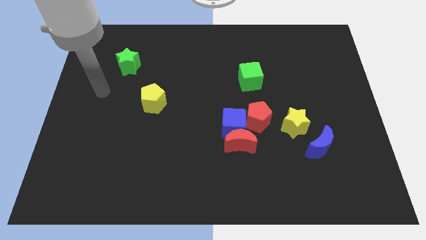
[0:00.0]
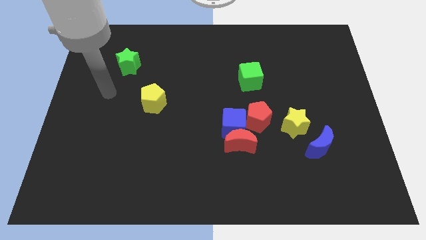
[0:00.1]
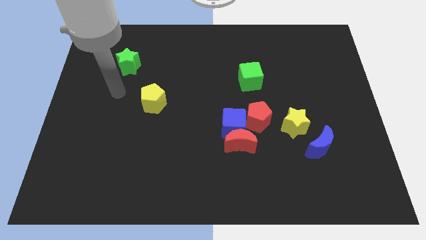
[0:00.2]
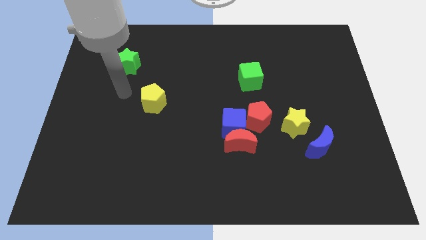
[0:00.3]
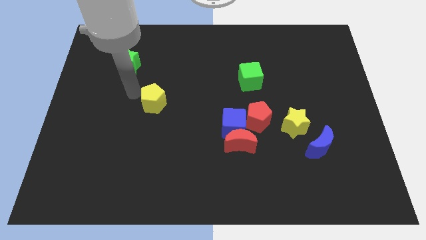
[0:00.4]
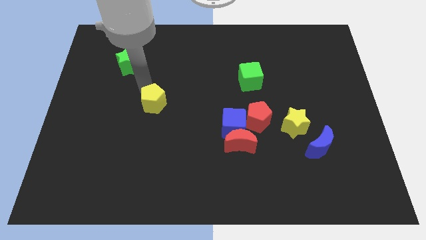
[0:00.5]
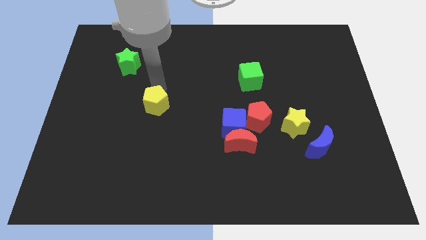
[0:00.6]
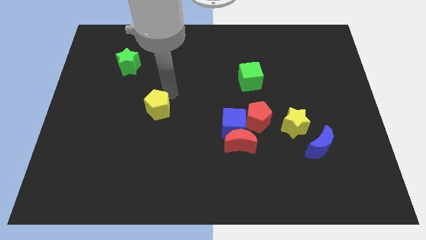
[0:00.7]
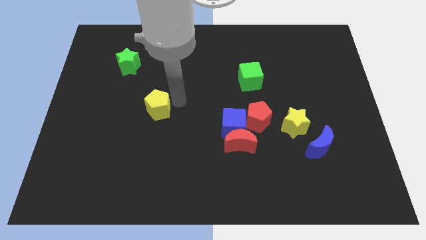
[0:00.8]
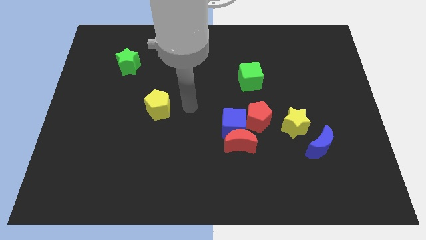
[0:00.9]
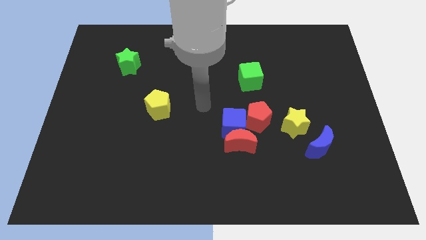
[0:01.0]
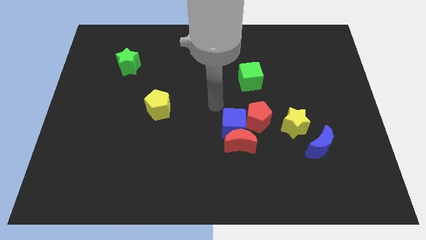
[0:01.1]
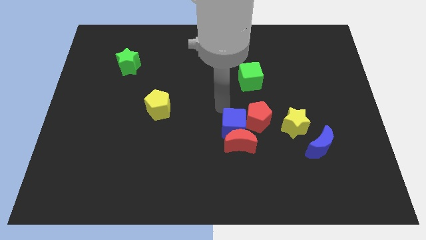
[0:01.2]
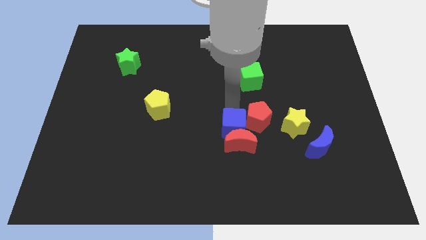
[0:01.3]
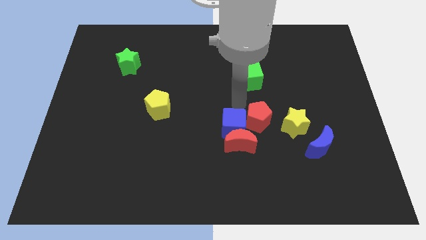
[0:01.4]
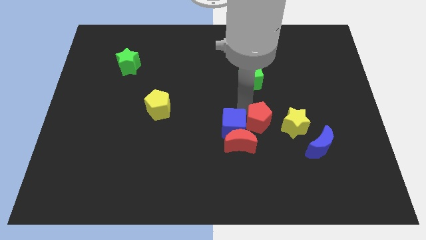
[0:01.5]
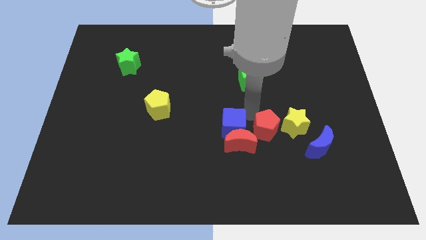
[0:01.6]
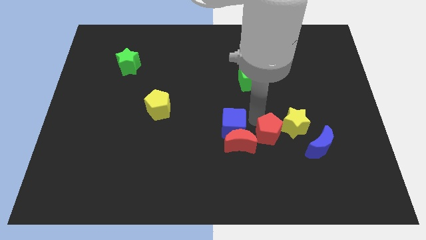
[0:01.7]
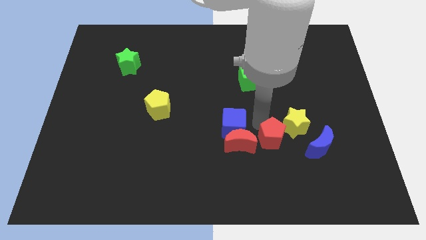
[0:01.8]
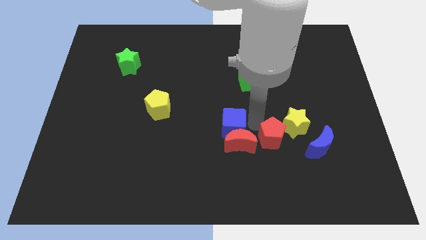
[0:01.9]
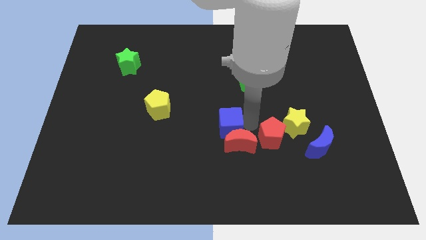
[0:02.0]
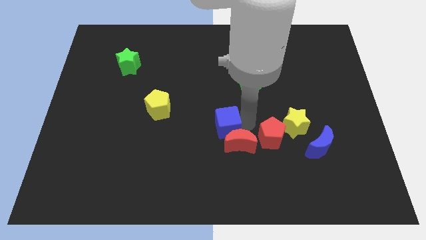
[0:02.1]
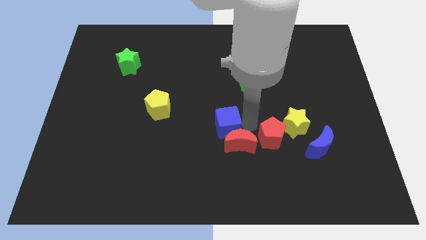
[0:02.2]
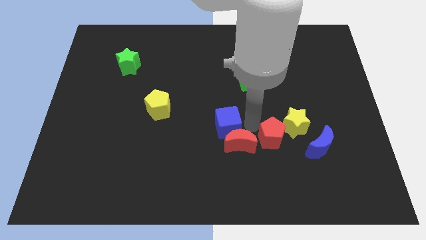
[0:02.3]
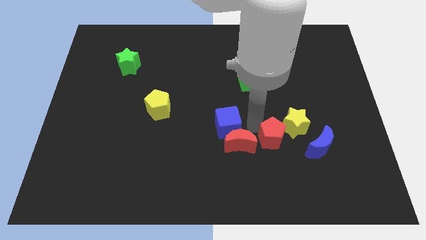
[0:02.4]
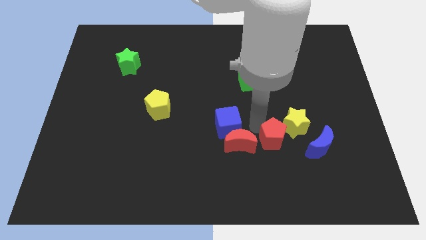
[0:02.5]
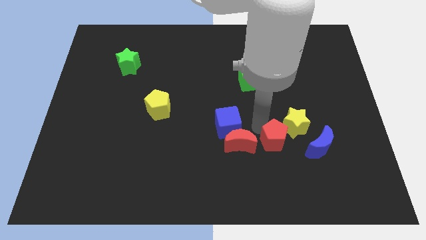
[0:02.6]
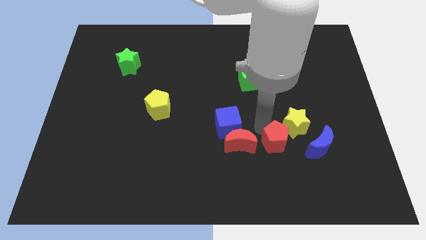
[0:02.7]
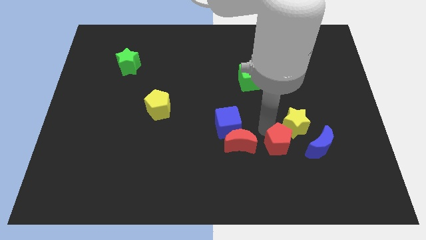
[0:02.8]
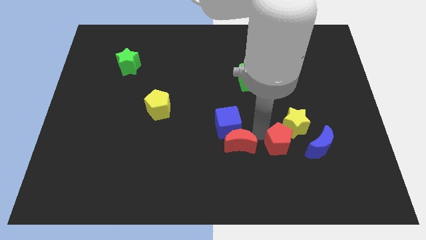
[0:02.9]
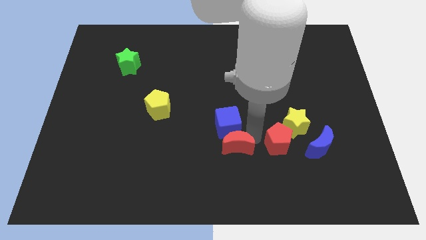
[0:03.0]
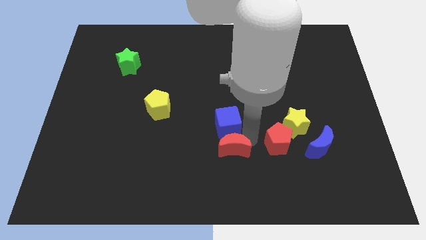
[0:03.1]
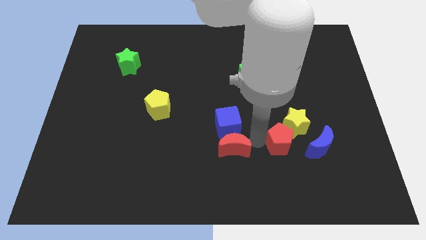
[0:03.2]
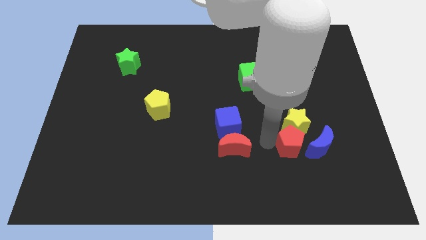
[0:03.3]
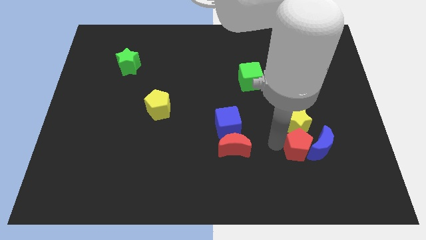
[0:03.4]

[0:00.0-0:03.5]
move the red pentagon next to the blue moon

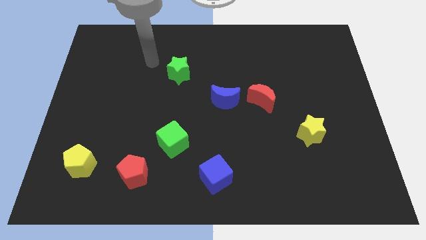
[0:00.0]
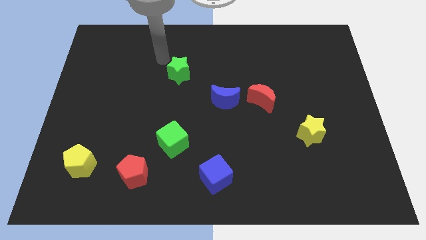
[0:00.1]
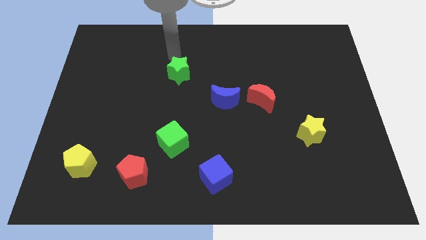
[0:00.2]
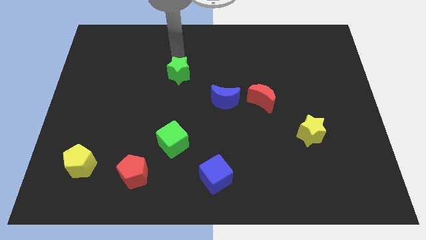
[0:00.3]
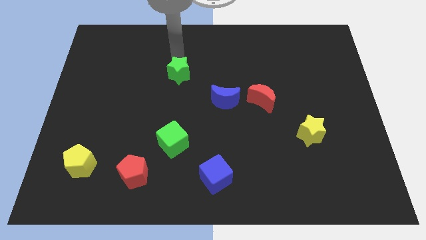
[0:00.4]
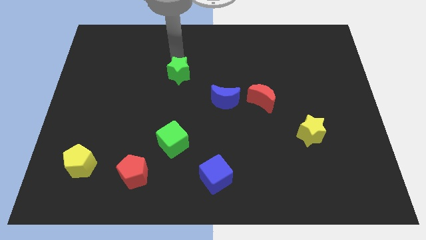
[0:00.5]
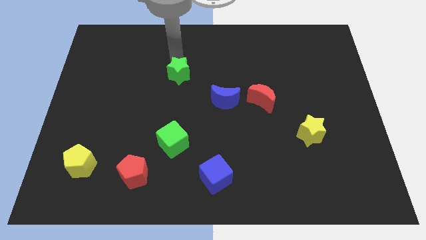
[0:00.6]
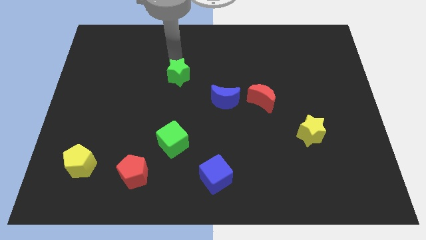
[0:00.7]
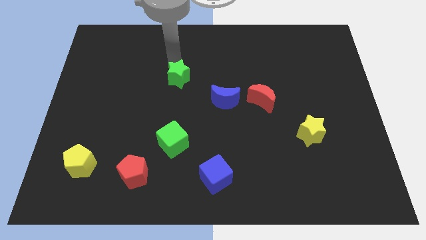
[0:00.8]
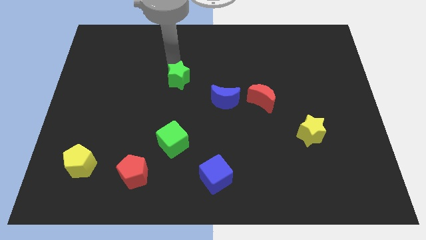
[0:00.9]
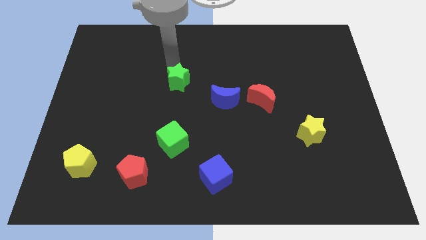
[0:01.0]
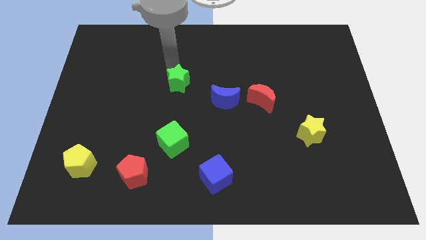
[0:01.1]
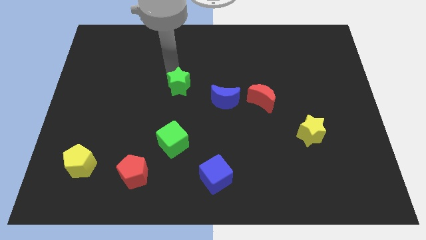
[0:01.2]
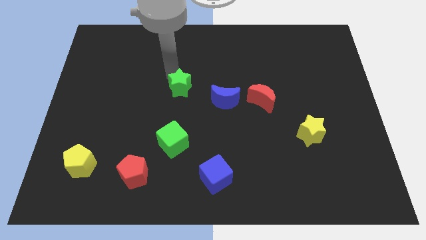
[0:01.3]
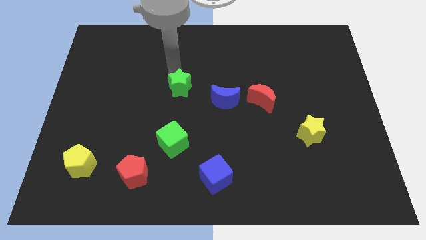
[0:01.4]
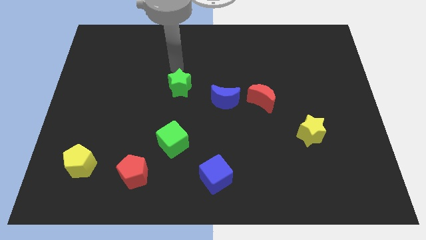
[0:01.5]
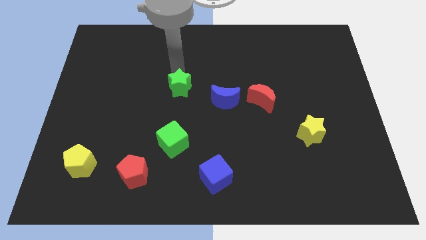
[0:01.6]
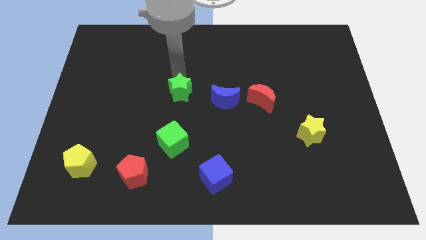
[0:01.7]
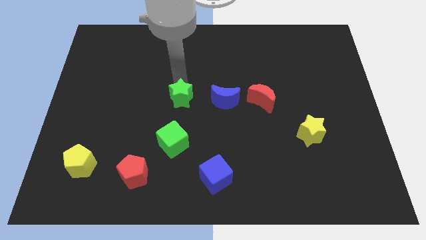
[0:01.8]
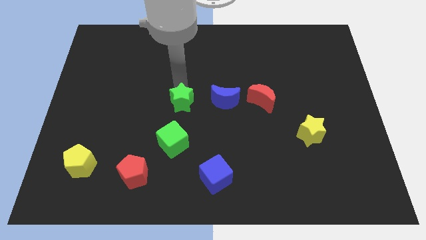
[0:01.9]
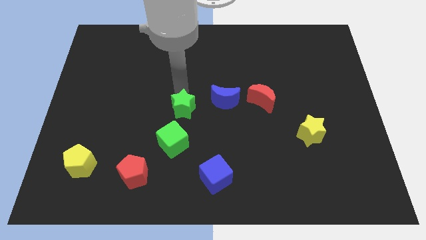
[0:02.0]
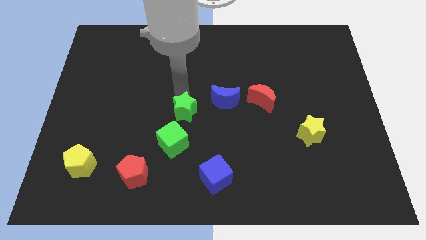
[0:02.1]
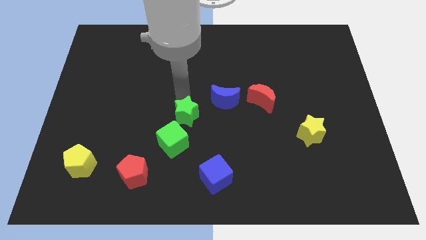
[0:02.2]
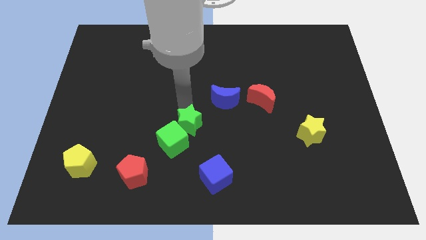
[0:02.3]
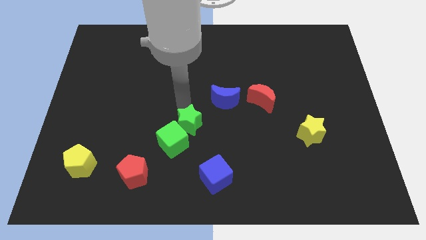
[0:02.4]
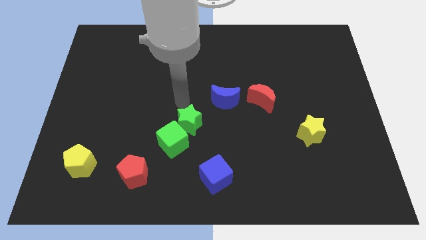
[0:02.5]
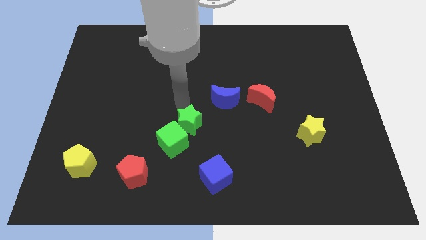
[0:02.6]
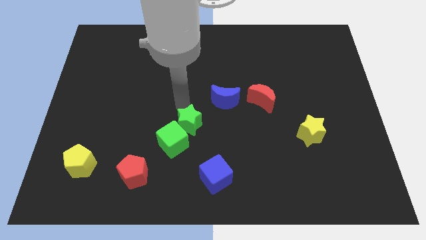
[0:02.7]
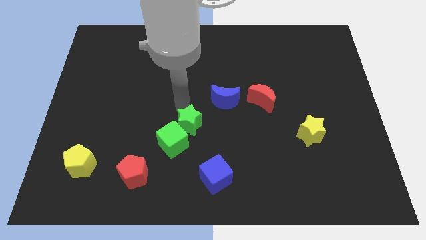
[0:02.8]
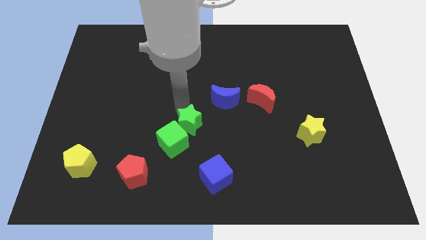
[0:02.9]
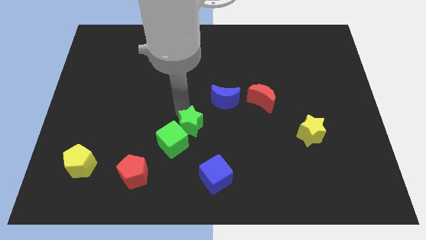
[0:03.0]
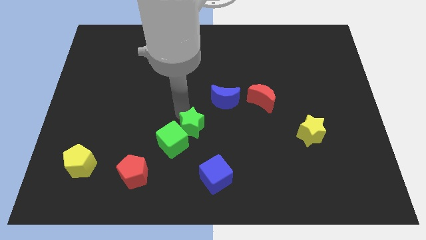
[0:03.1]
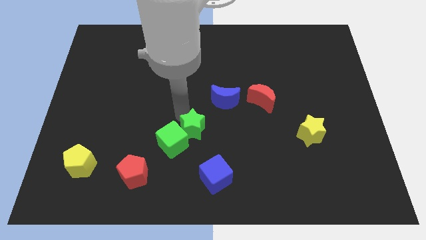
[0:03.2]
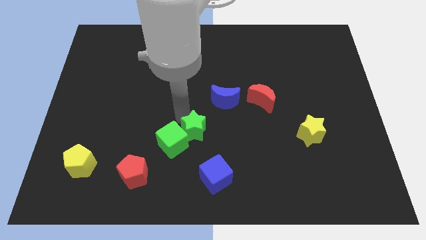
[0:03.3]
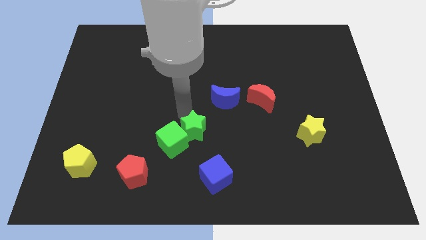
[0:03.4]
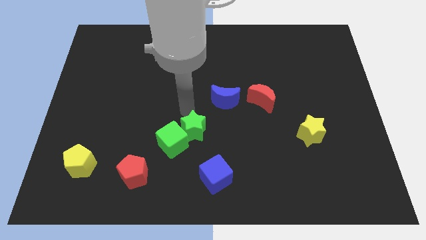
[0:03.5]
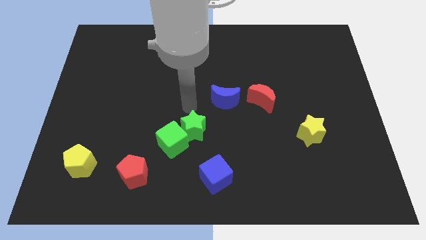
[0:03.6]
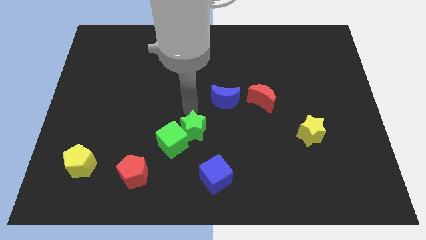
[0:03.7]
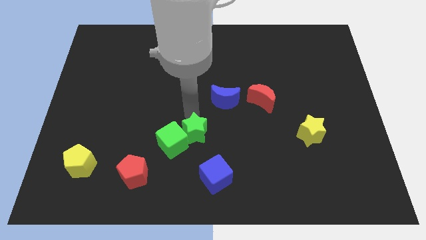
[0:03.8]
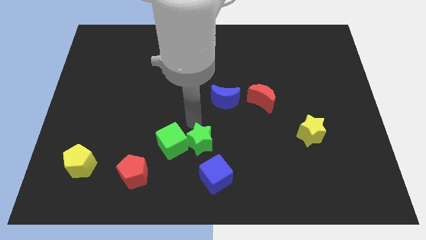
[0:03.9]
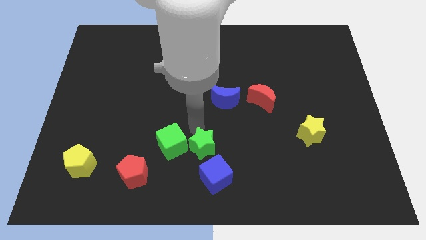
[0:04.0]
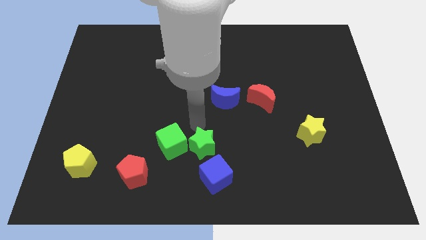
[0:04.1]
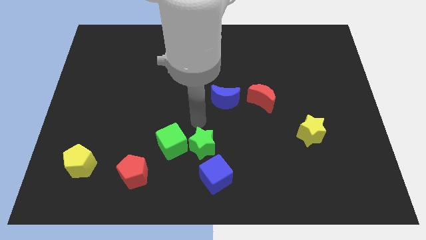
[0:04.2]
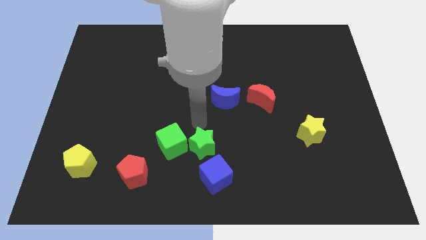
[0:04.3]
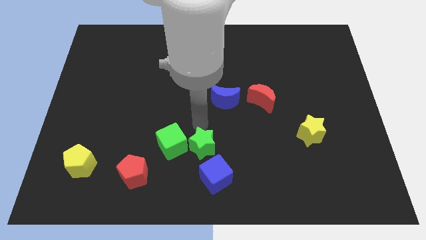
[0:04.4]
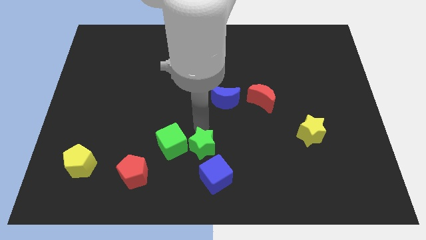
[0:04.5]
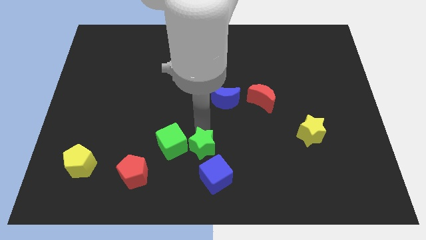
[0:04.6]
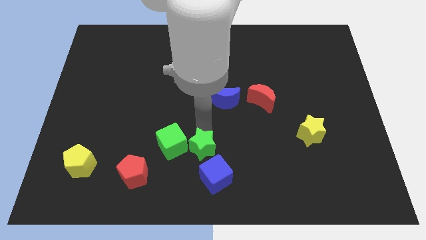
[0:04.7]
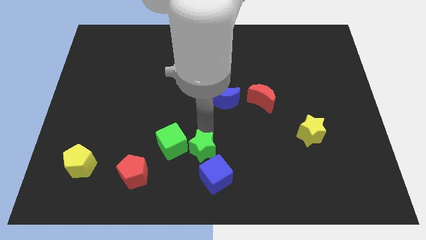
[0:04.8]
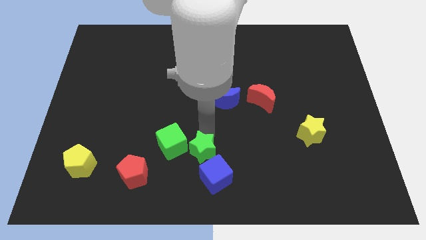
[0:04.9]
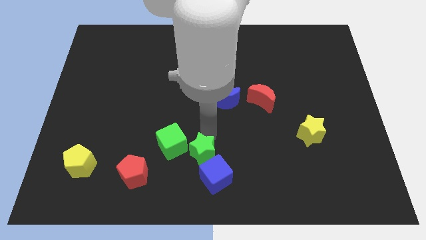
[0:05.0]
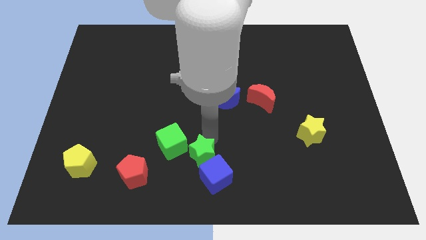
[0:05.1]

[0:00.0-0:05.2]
push the green star close to the blue cube
